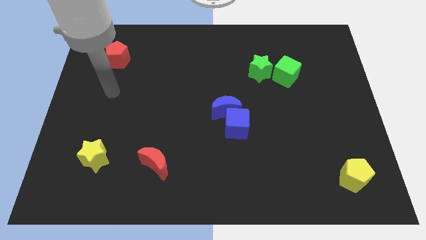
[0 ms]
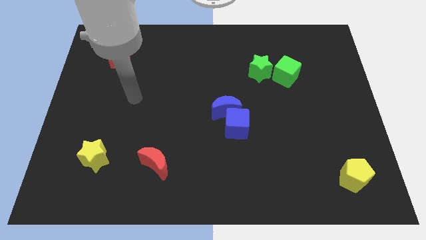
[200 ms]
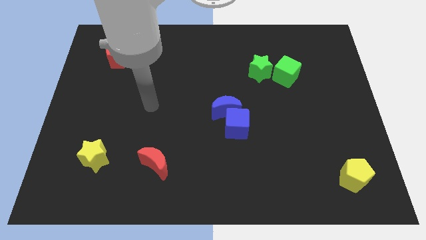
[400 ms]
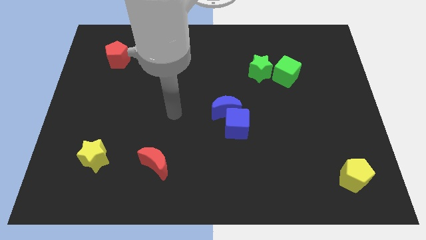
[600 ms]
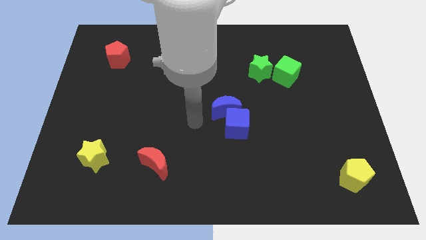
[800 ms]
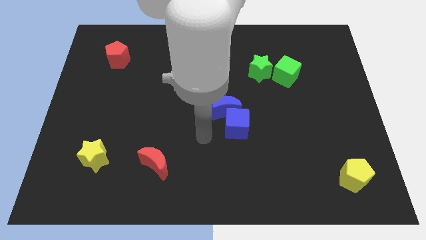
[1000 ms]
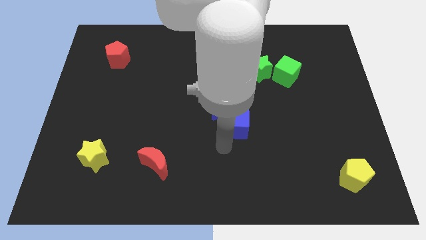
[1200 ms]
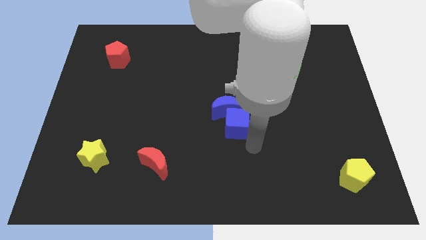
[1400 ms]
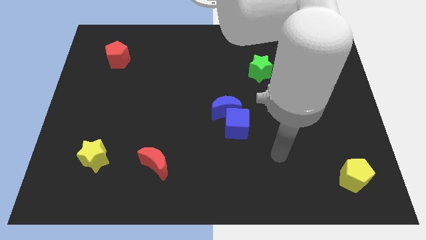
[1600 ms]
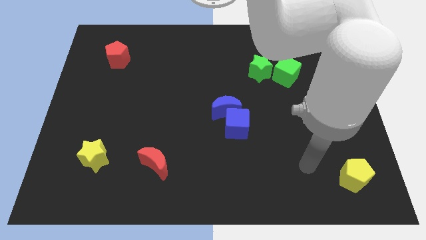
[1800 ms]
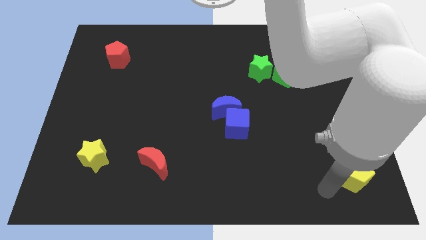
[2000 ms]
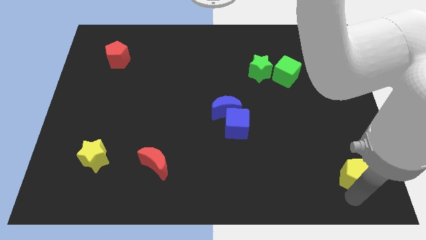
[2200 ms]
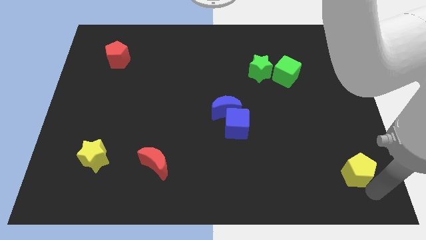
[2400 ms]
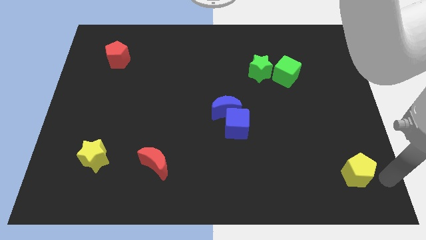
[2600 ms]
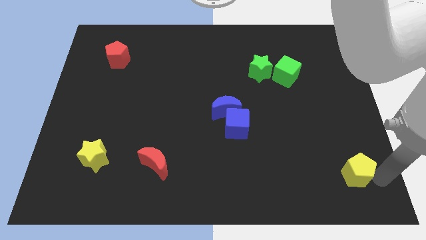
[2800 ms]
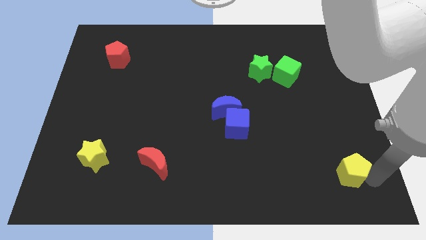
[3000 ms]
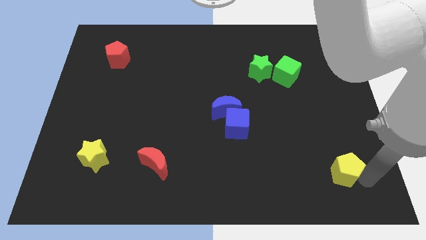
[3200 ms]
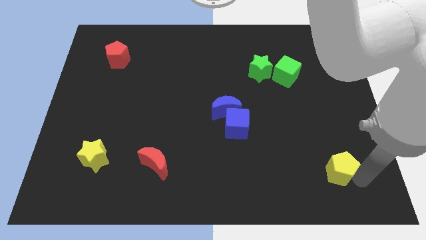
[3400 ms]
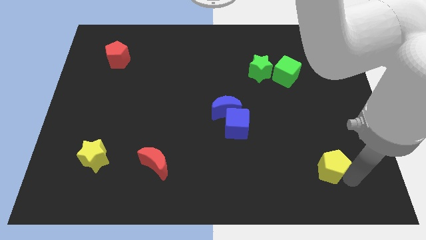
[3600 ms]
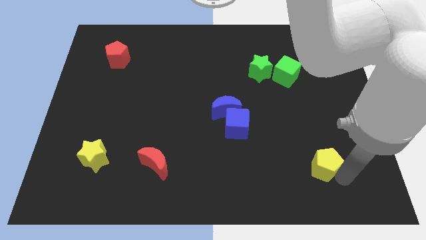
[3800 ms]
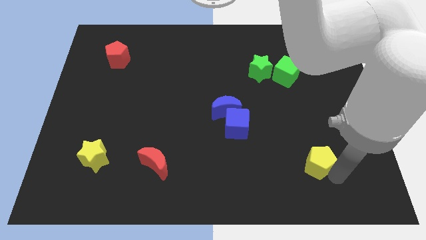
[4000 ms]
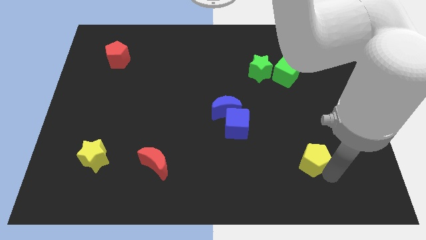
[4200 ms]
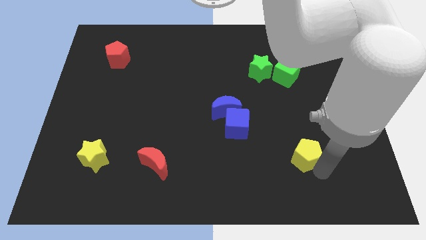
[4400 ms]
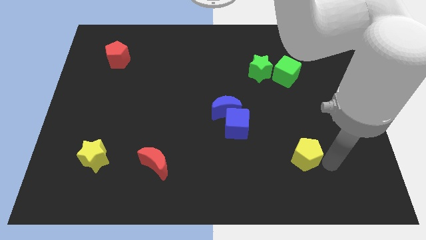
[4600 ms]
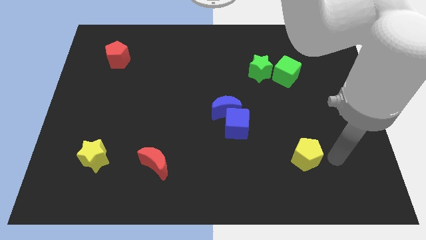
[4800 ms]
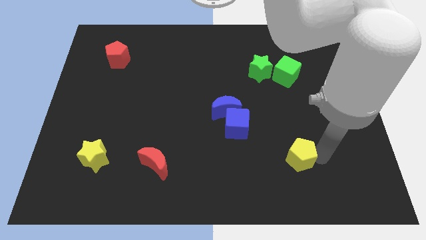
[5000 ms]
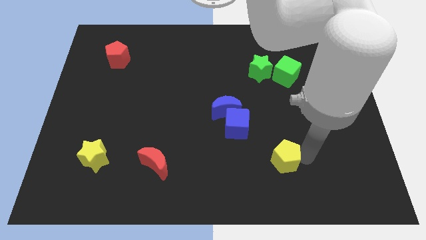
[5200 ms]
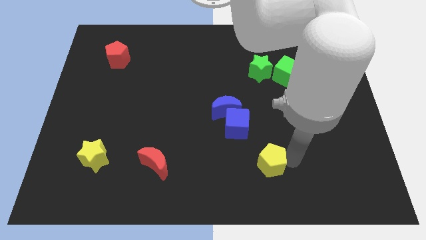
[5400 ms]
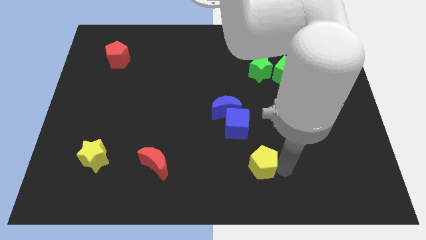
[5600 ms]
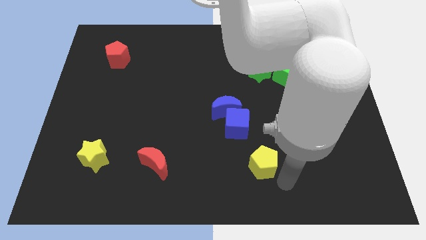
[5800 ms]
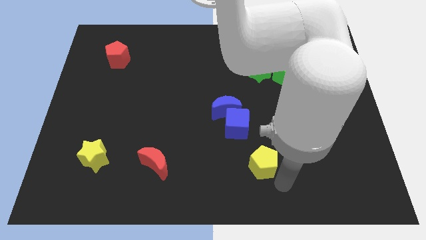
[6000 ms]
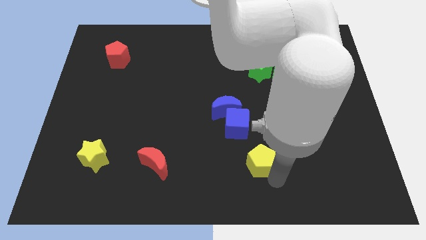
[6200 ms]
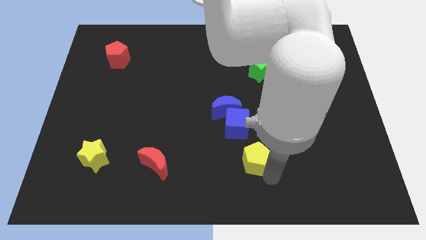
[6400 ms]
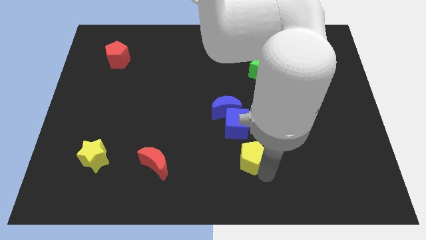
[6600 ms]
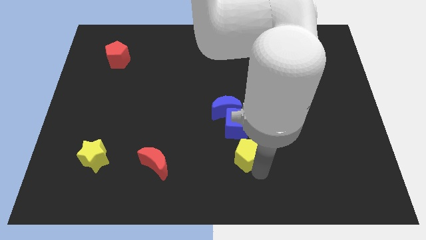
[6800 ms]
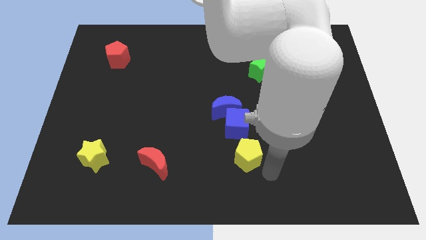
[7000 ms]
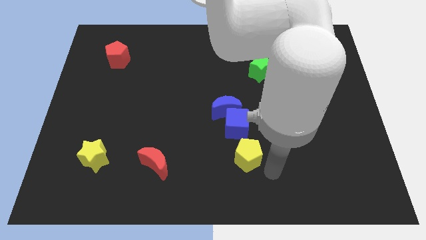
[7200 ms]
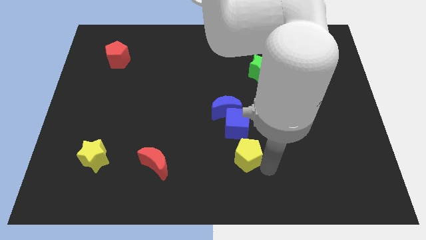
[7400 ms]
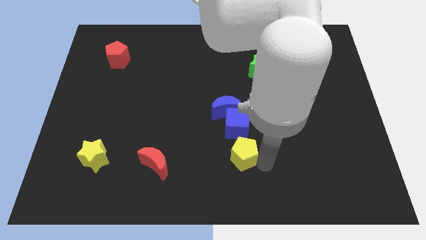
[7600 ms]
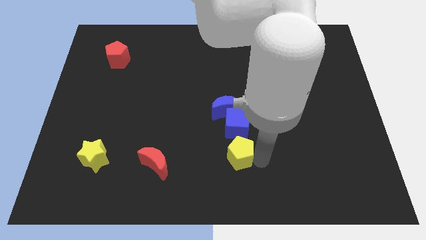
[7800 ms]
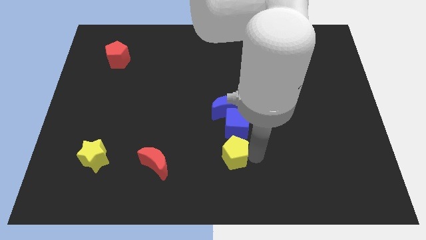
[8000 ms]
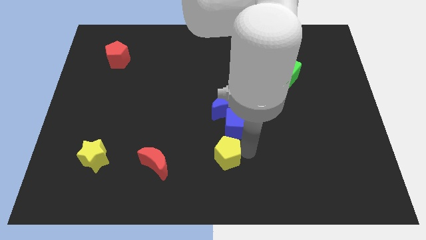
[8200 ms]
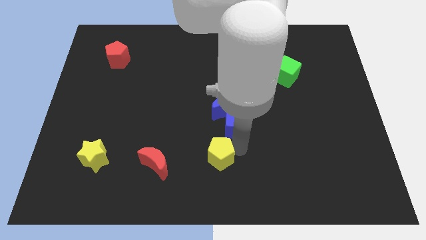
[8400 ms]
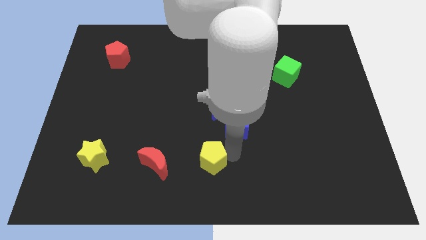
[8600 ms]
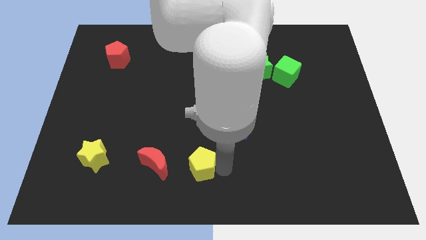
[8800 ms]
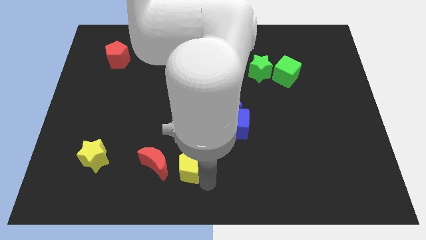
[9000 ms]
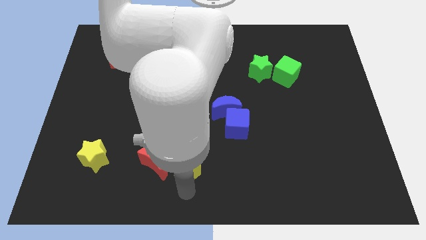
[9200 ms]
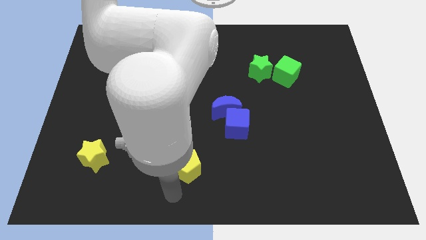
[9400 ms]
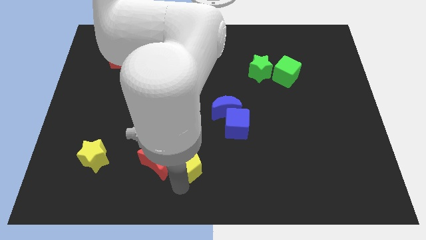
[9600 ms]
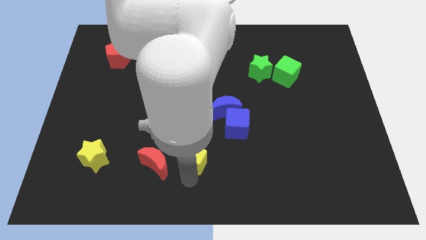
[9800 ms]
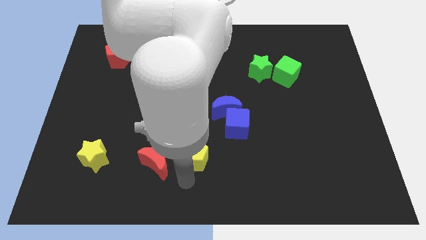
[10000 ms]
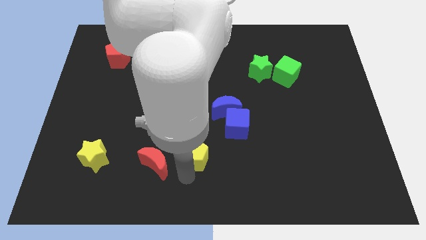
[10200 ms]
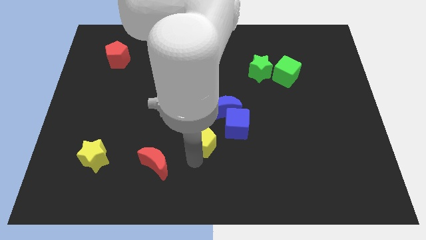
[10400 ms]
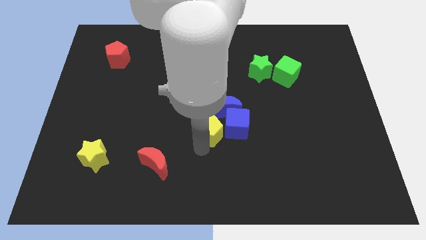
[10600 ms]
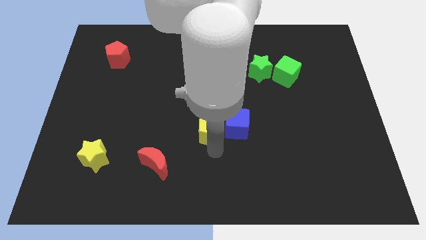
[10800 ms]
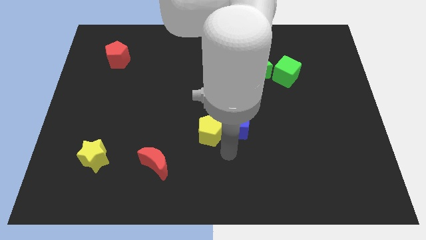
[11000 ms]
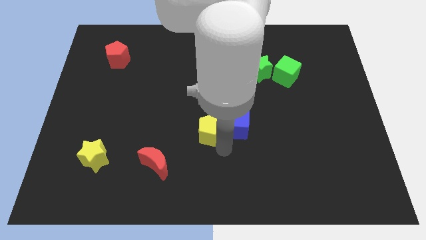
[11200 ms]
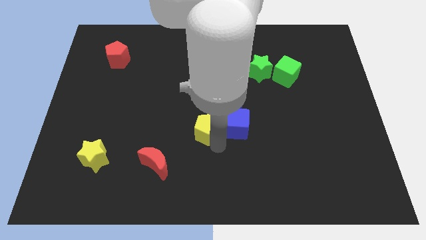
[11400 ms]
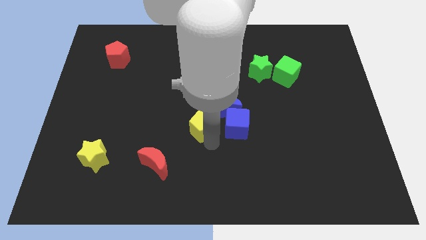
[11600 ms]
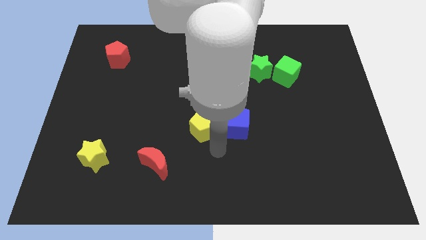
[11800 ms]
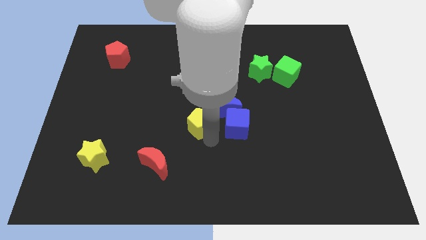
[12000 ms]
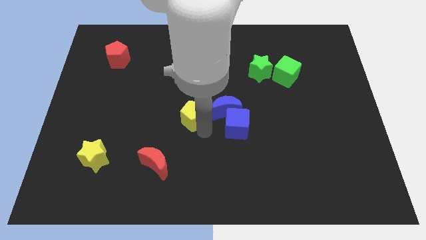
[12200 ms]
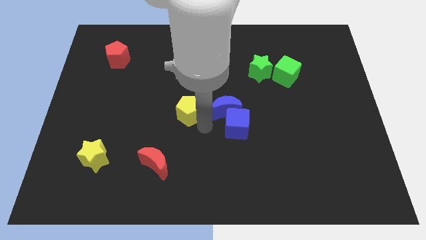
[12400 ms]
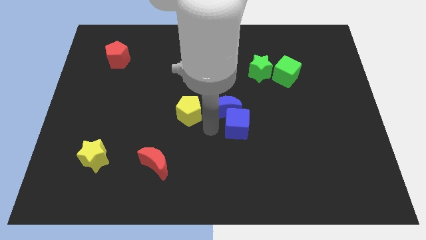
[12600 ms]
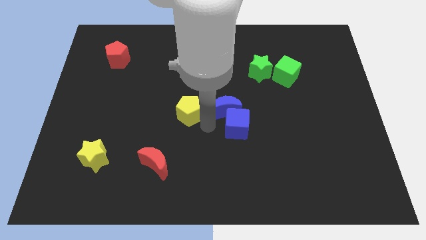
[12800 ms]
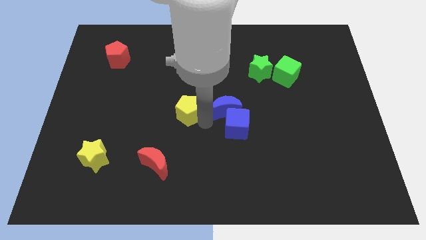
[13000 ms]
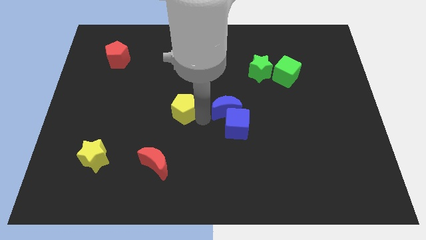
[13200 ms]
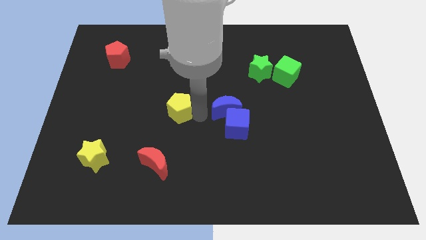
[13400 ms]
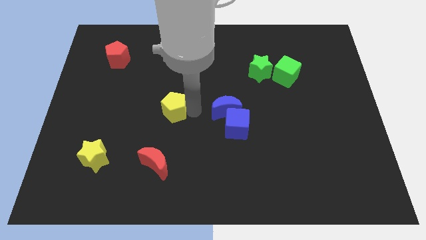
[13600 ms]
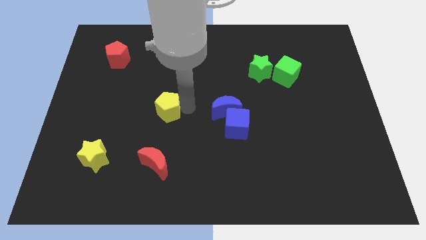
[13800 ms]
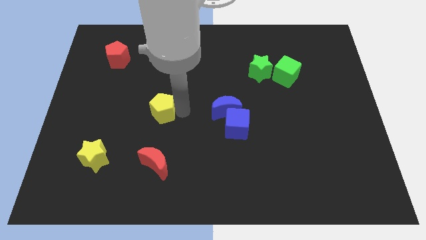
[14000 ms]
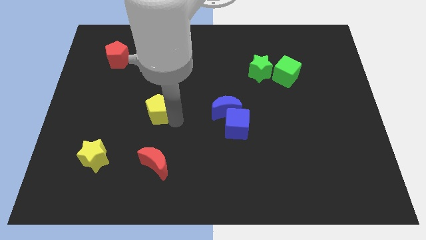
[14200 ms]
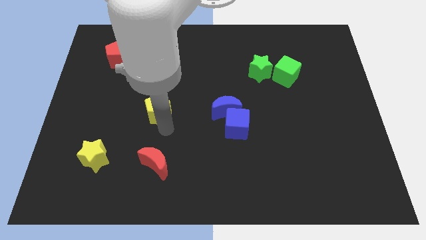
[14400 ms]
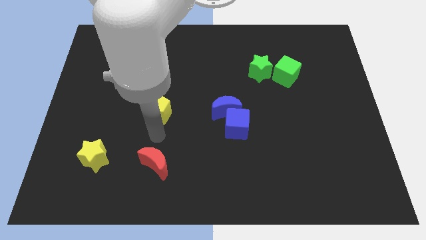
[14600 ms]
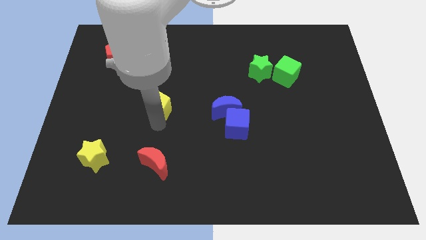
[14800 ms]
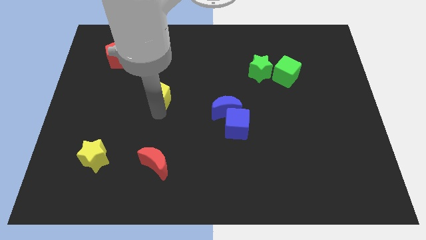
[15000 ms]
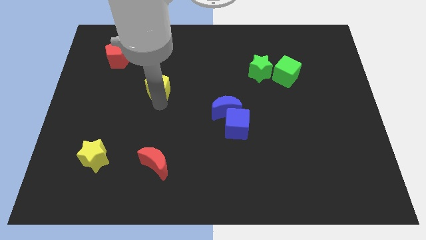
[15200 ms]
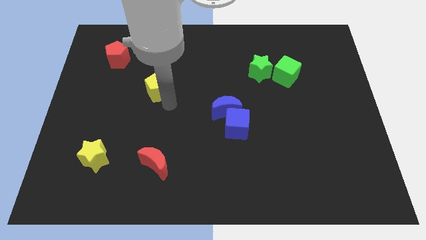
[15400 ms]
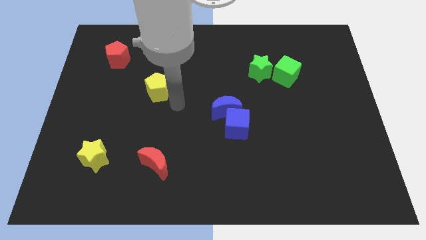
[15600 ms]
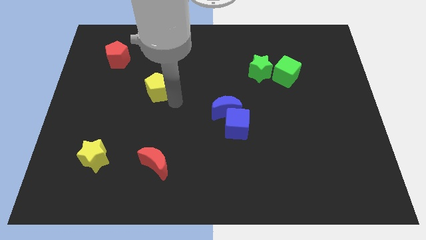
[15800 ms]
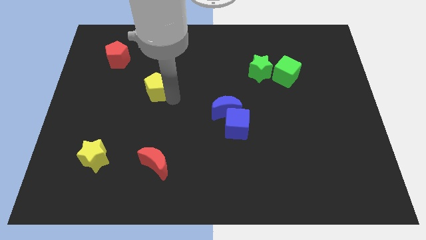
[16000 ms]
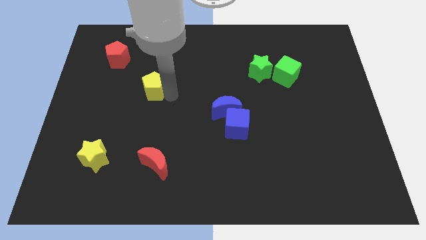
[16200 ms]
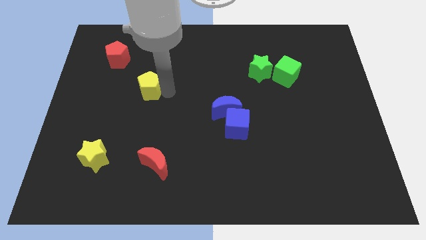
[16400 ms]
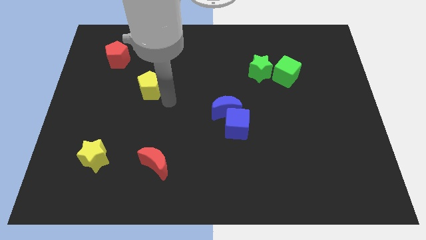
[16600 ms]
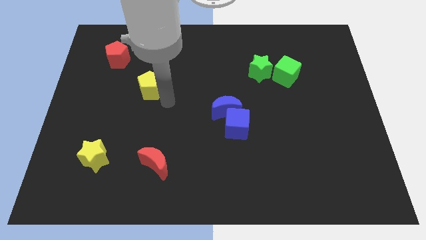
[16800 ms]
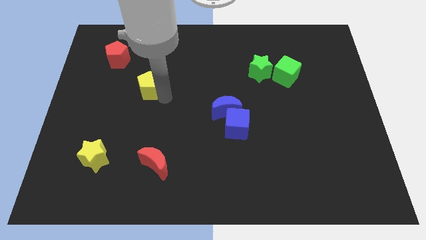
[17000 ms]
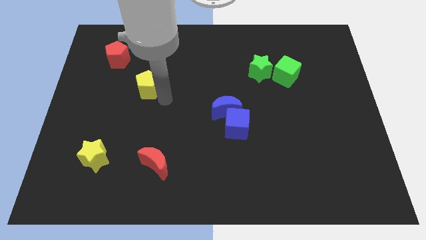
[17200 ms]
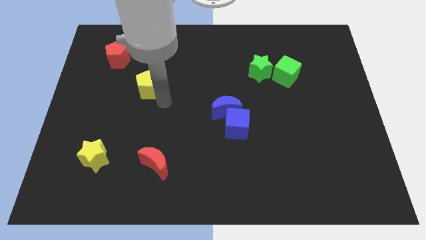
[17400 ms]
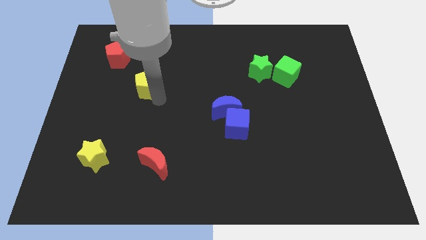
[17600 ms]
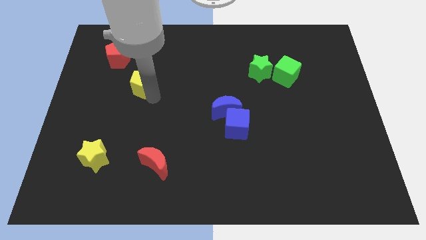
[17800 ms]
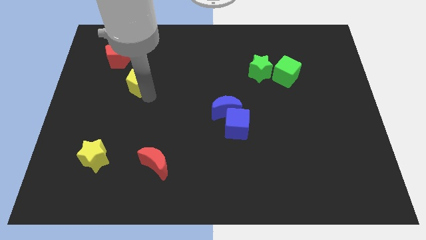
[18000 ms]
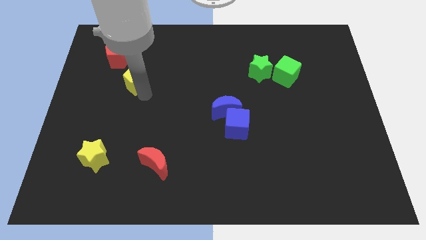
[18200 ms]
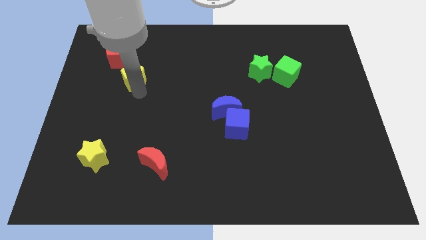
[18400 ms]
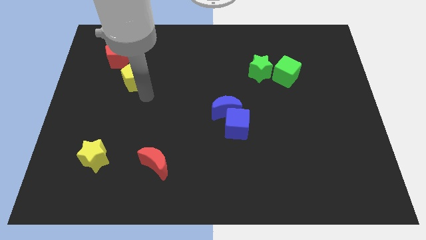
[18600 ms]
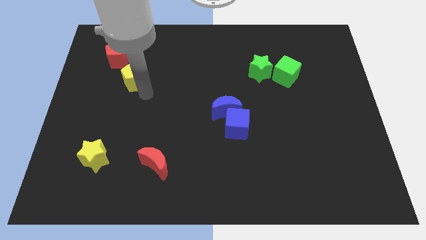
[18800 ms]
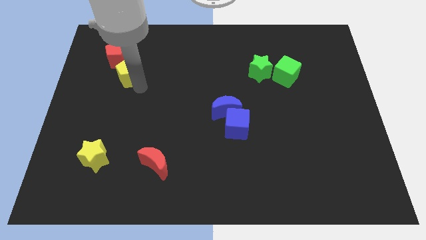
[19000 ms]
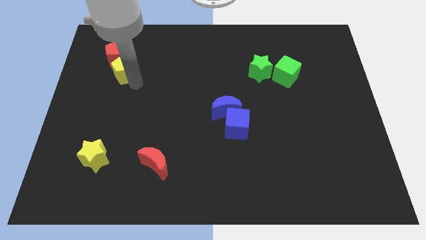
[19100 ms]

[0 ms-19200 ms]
push the yellow pentagon next to the red pentagon
